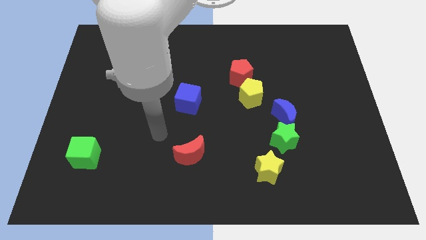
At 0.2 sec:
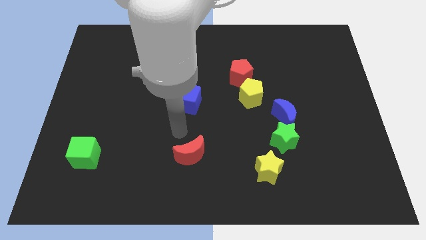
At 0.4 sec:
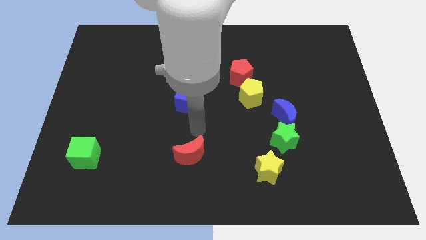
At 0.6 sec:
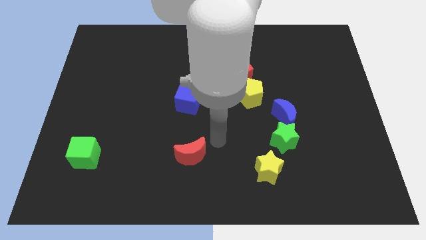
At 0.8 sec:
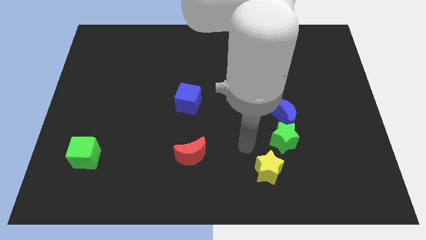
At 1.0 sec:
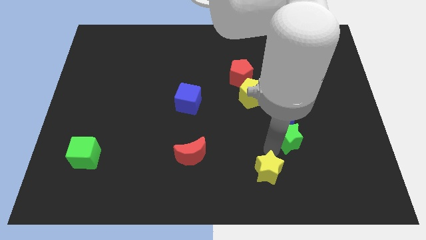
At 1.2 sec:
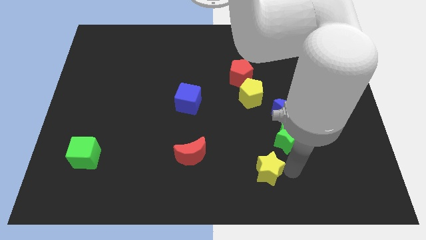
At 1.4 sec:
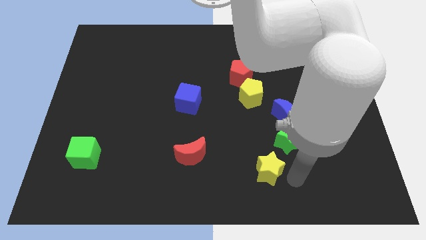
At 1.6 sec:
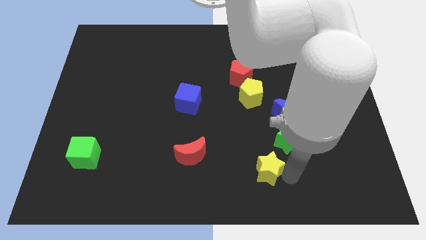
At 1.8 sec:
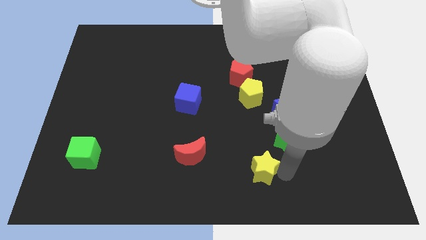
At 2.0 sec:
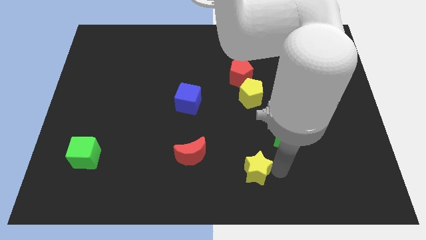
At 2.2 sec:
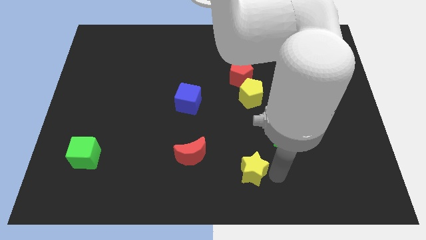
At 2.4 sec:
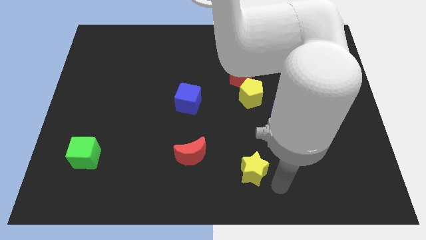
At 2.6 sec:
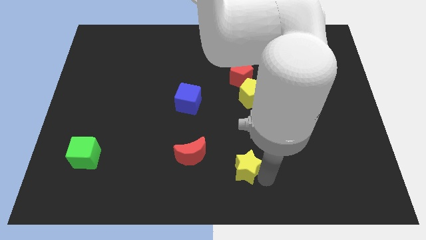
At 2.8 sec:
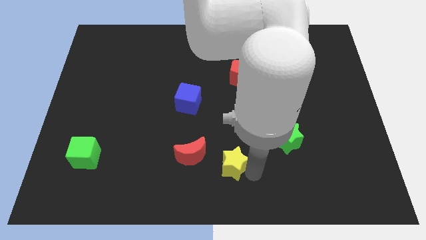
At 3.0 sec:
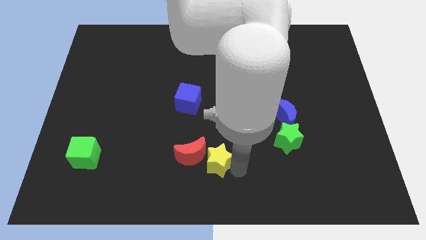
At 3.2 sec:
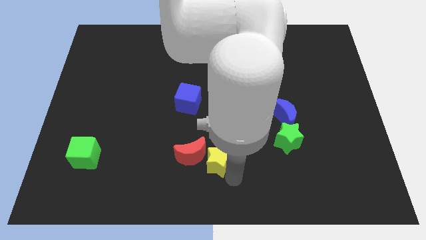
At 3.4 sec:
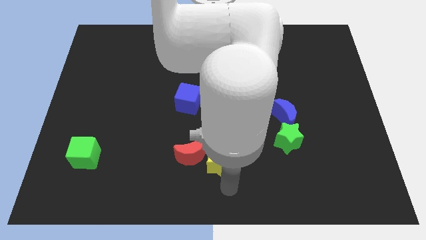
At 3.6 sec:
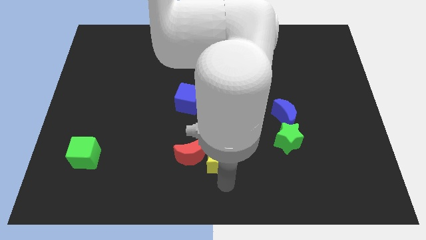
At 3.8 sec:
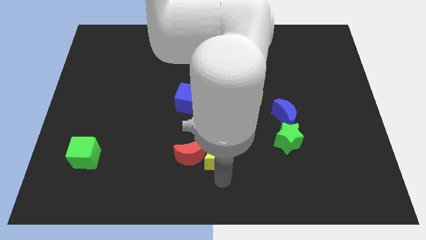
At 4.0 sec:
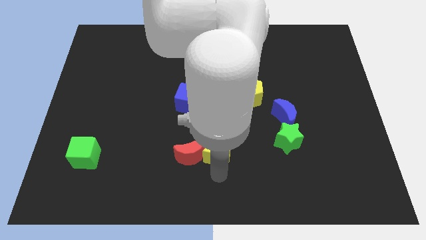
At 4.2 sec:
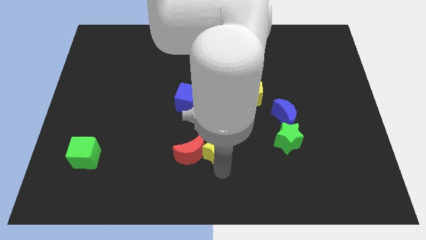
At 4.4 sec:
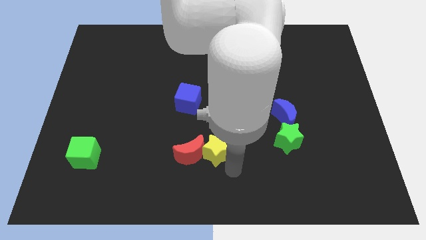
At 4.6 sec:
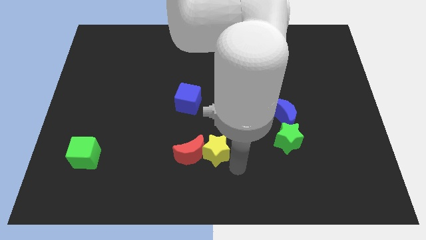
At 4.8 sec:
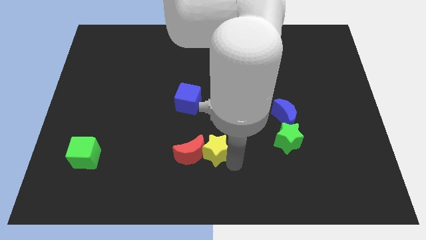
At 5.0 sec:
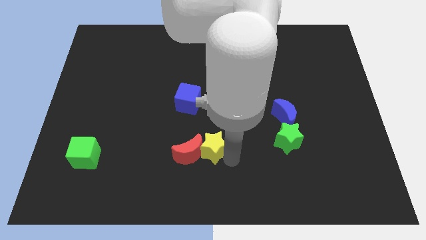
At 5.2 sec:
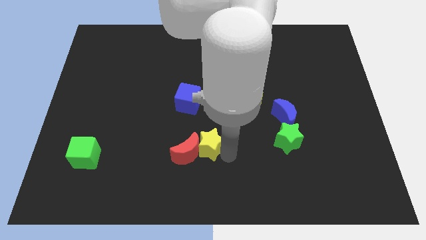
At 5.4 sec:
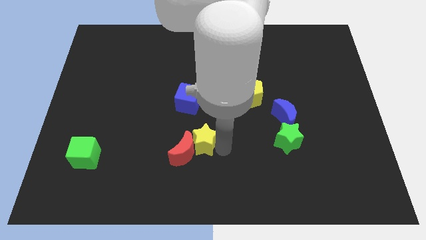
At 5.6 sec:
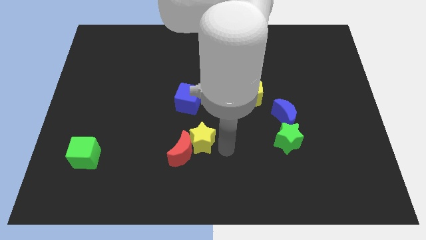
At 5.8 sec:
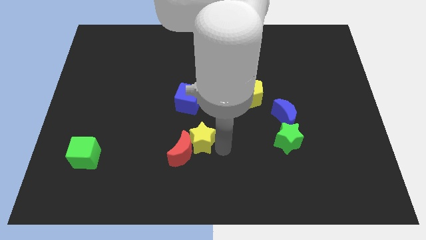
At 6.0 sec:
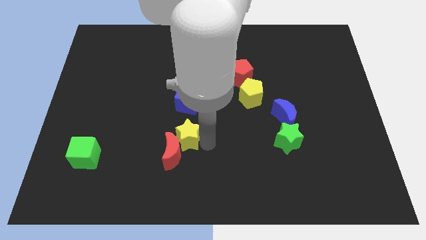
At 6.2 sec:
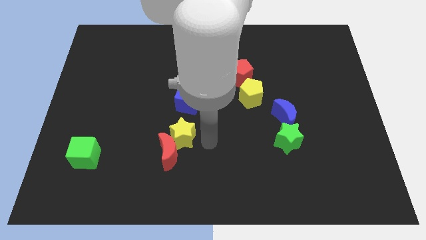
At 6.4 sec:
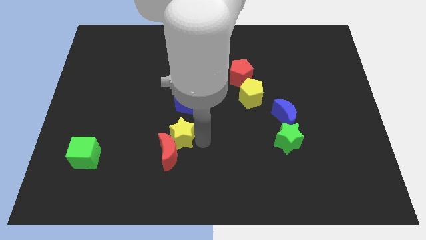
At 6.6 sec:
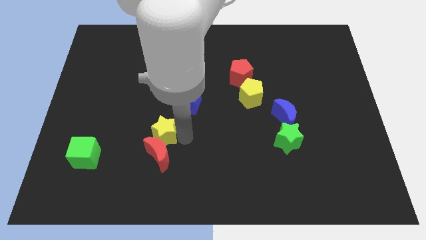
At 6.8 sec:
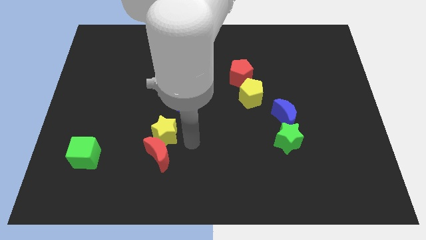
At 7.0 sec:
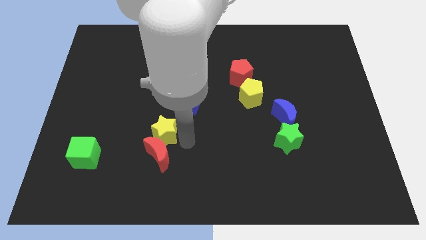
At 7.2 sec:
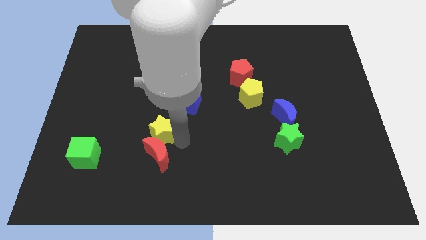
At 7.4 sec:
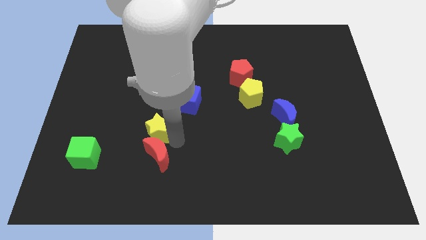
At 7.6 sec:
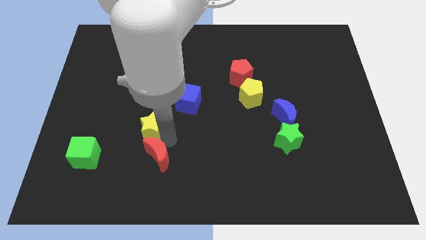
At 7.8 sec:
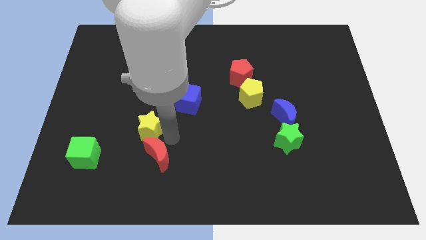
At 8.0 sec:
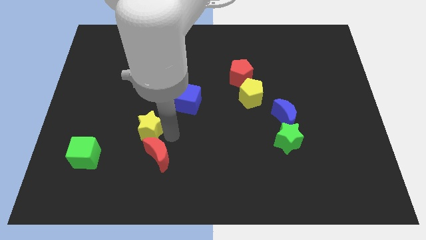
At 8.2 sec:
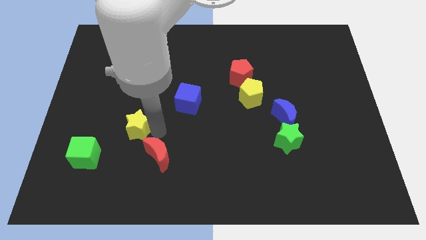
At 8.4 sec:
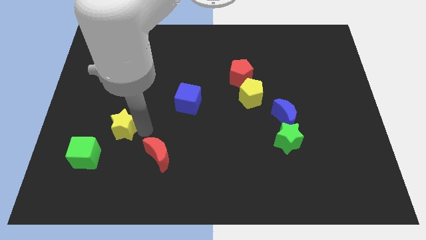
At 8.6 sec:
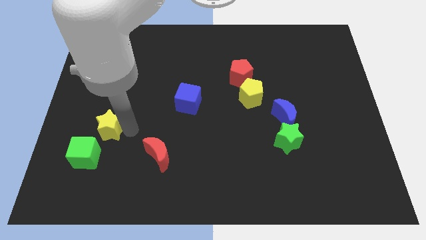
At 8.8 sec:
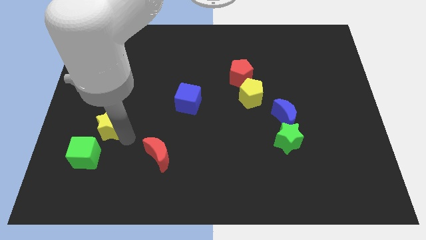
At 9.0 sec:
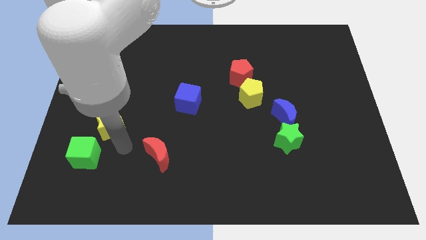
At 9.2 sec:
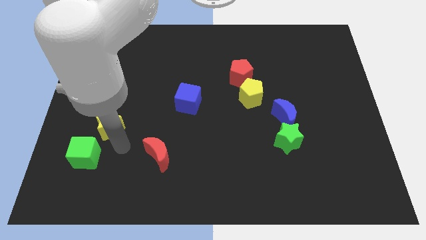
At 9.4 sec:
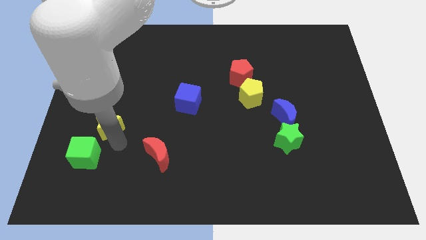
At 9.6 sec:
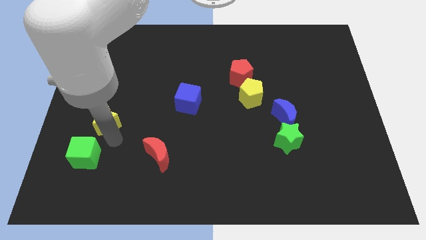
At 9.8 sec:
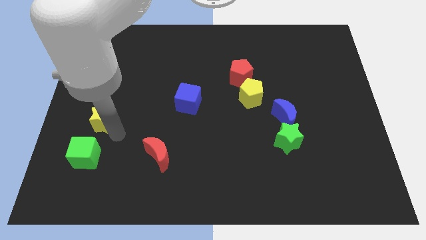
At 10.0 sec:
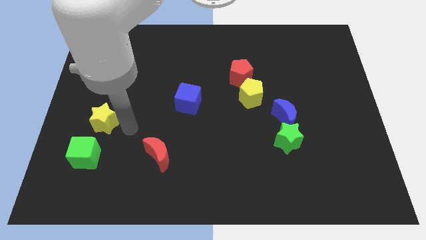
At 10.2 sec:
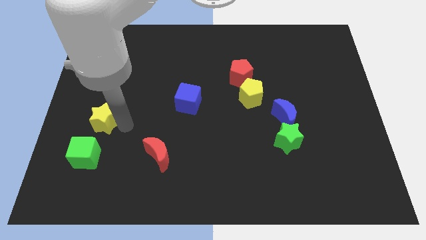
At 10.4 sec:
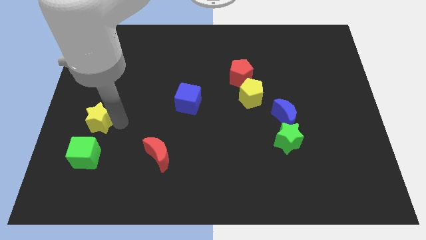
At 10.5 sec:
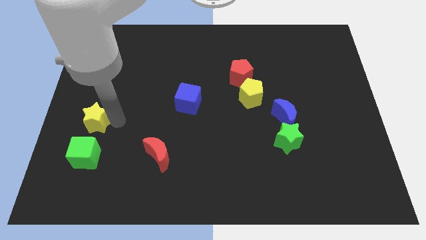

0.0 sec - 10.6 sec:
slide the yellow star to the left side

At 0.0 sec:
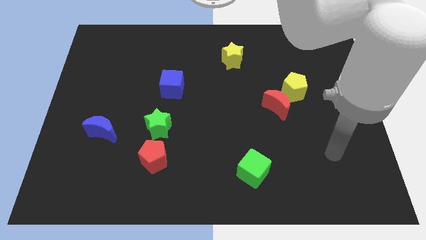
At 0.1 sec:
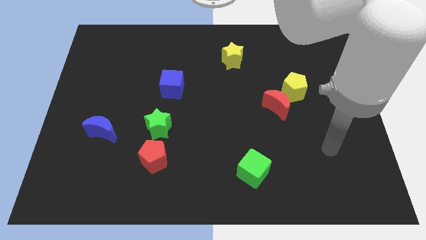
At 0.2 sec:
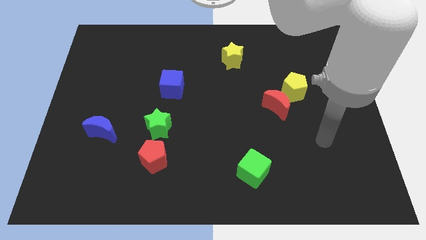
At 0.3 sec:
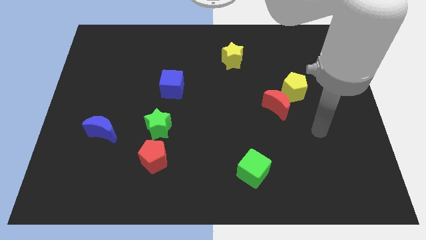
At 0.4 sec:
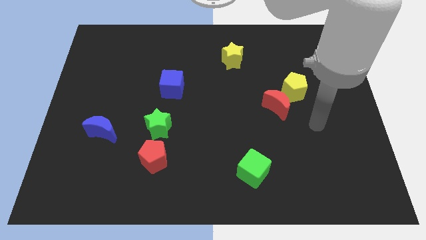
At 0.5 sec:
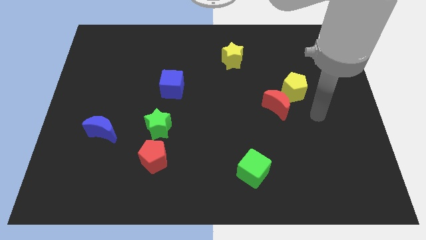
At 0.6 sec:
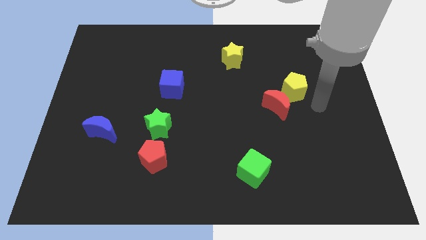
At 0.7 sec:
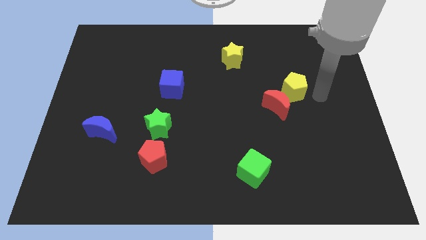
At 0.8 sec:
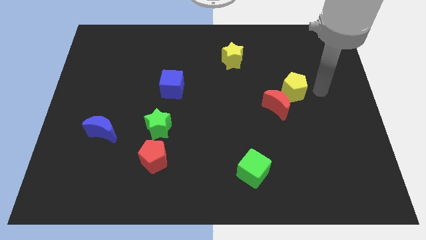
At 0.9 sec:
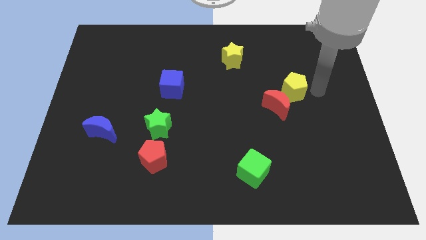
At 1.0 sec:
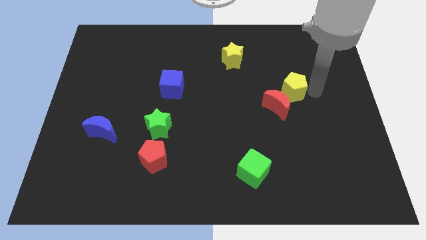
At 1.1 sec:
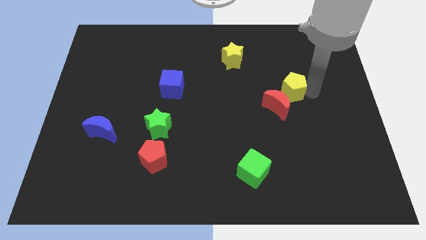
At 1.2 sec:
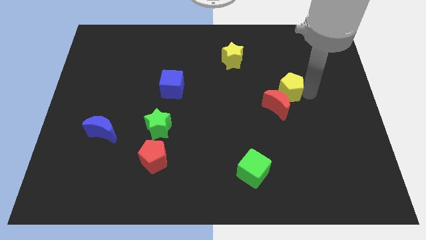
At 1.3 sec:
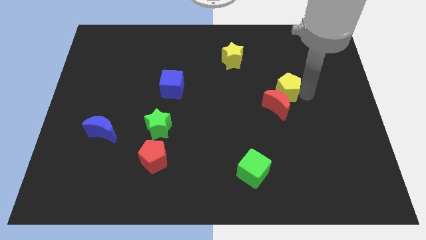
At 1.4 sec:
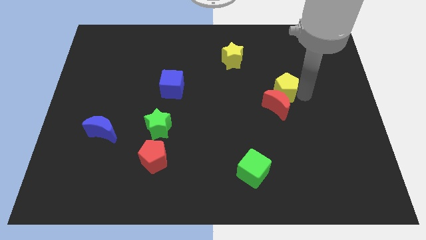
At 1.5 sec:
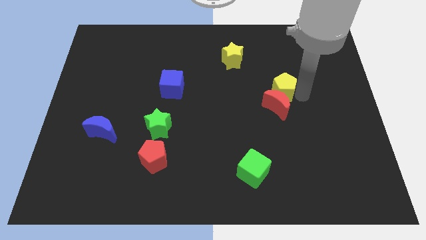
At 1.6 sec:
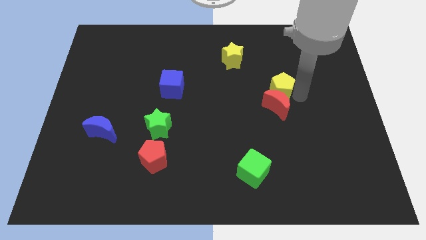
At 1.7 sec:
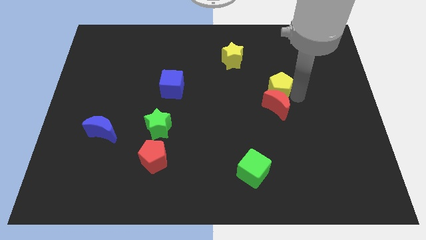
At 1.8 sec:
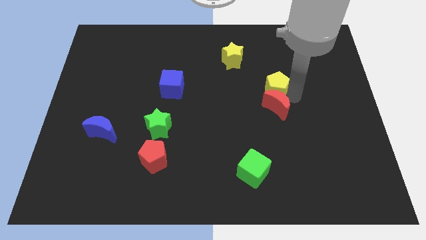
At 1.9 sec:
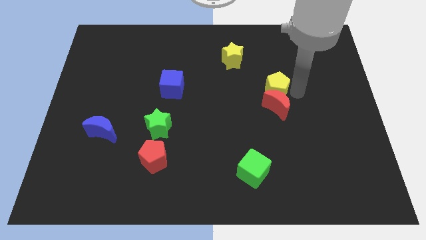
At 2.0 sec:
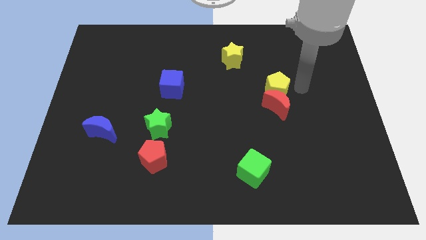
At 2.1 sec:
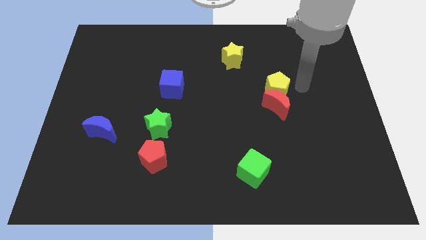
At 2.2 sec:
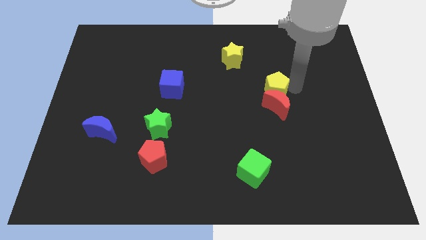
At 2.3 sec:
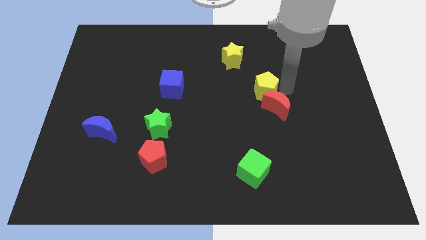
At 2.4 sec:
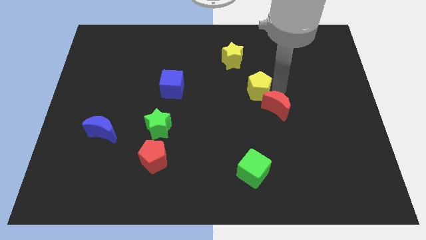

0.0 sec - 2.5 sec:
push the yellow pentagon to the center
